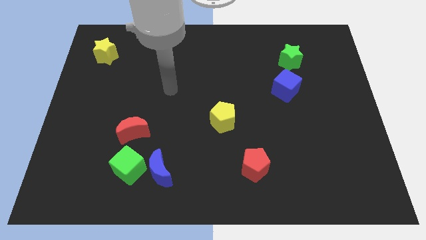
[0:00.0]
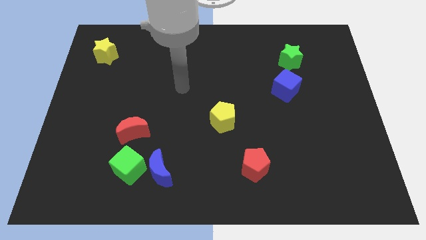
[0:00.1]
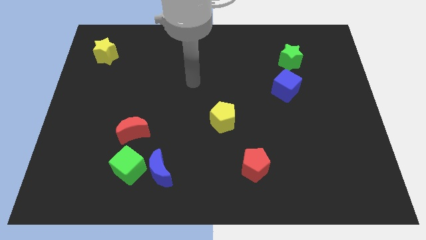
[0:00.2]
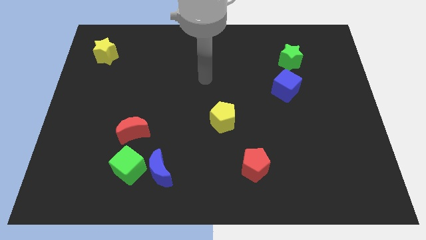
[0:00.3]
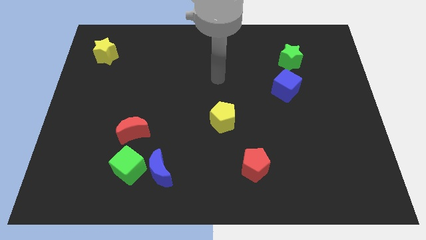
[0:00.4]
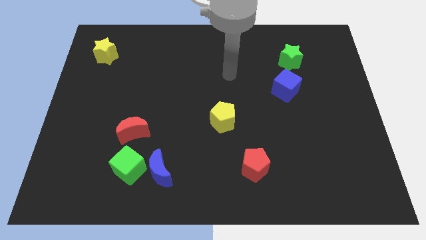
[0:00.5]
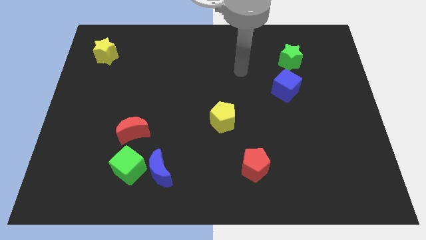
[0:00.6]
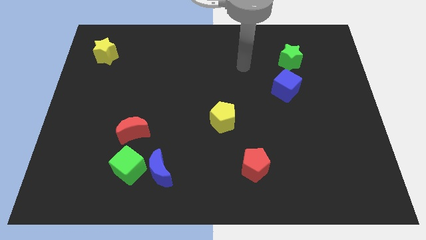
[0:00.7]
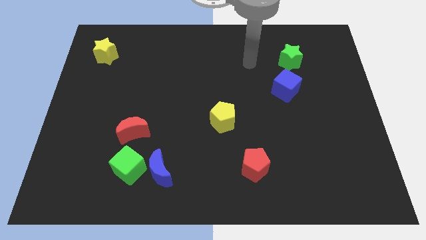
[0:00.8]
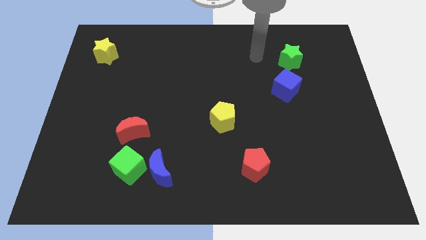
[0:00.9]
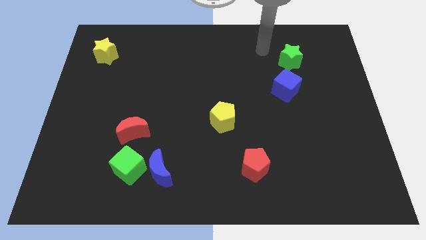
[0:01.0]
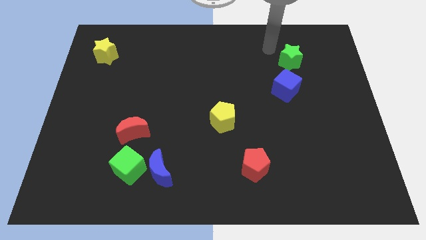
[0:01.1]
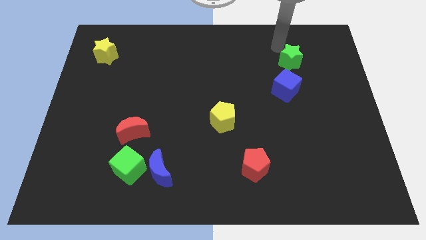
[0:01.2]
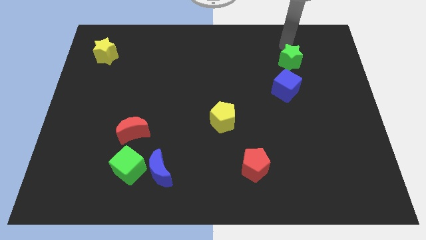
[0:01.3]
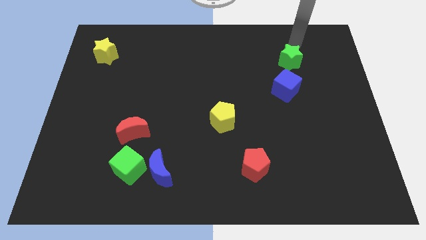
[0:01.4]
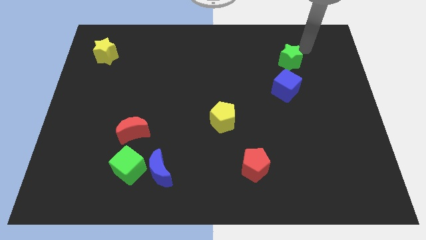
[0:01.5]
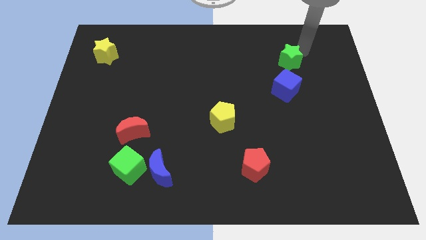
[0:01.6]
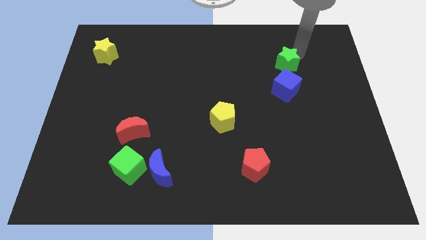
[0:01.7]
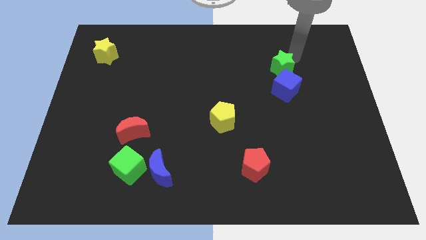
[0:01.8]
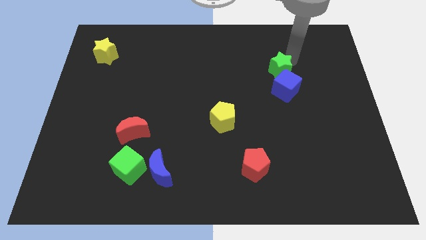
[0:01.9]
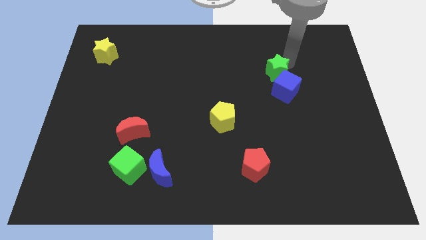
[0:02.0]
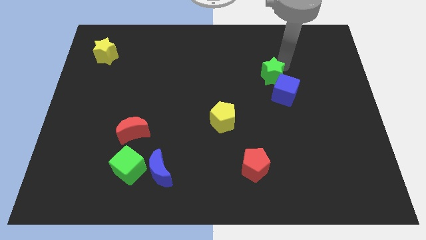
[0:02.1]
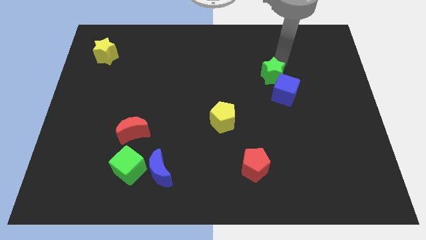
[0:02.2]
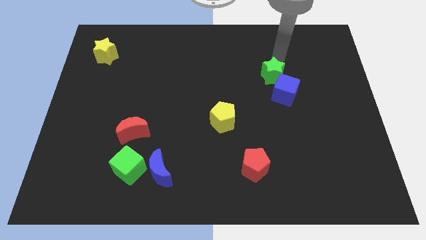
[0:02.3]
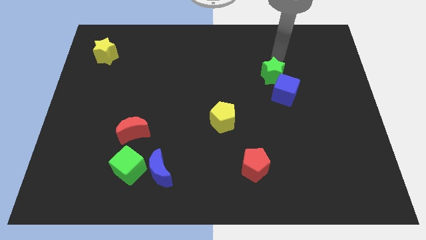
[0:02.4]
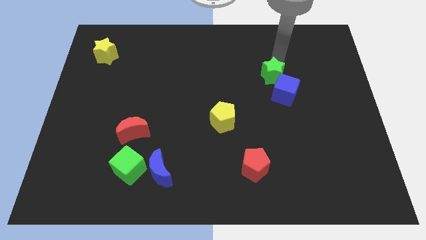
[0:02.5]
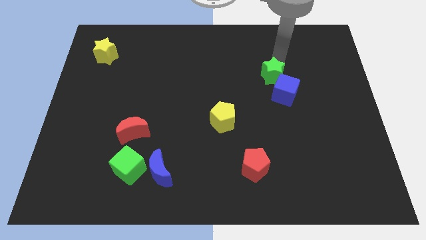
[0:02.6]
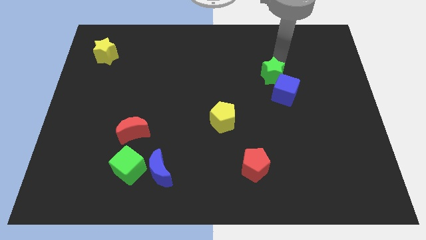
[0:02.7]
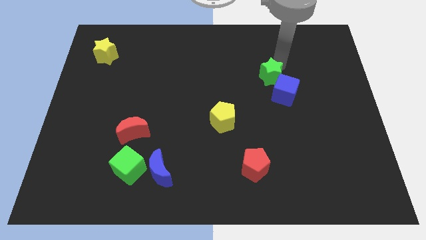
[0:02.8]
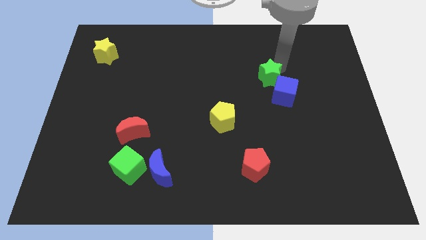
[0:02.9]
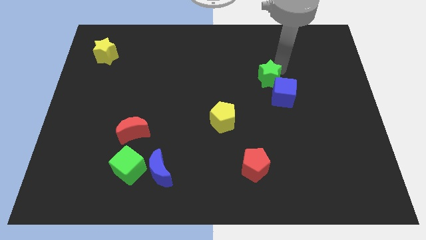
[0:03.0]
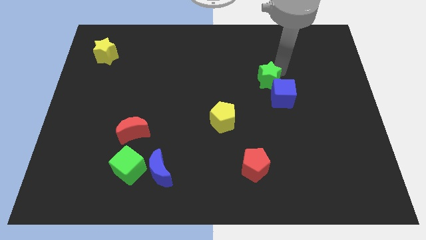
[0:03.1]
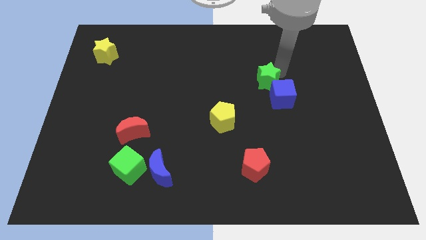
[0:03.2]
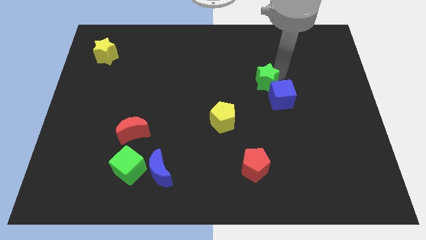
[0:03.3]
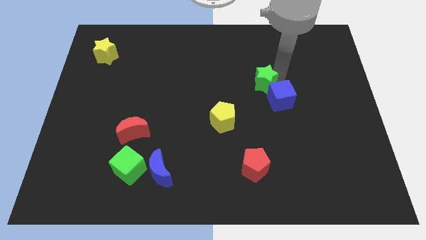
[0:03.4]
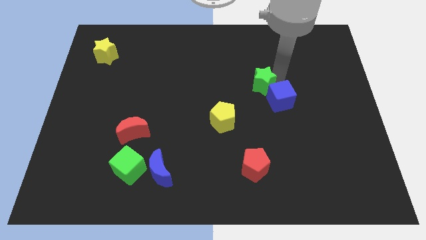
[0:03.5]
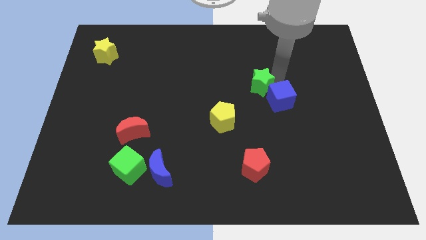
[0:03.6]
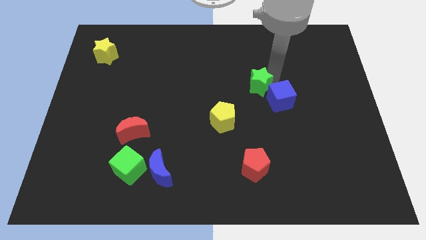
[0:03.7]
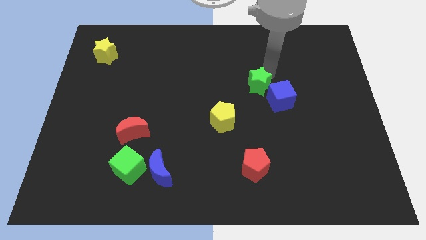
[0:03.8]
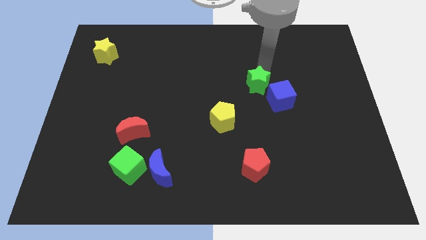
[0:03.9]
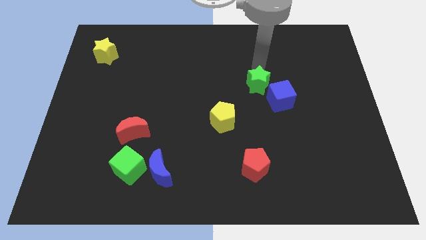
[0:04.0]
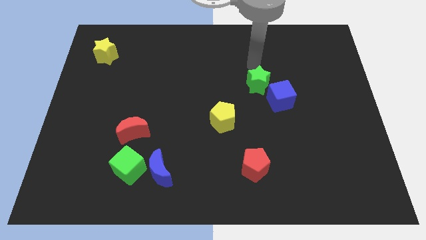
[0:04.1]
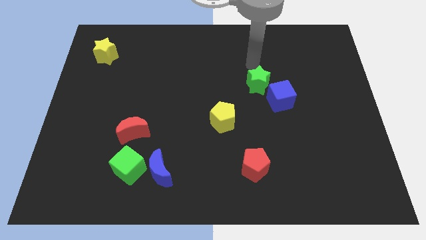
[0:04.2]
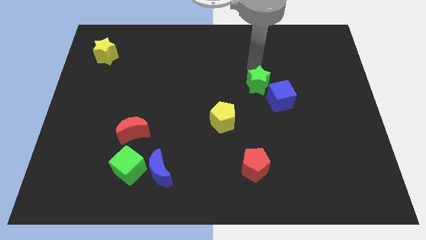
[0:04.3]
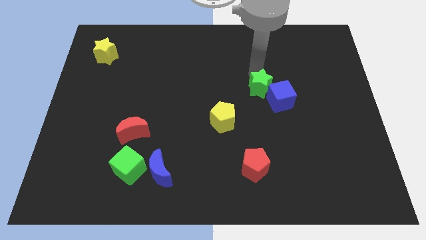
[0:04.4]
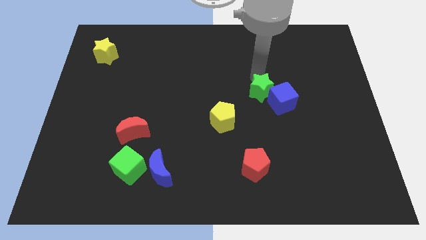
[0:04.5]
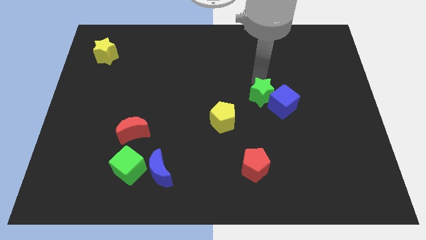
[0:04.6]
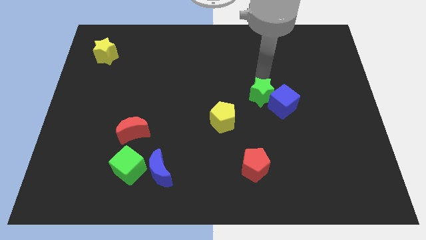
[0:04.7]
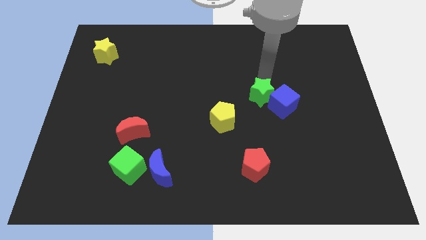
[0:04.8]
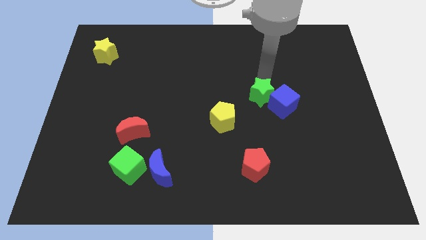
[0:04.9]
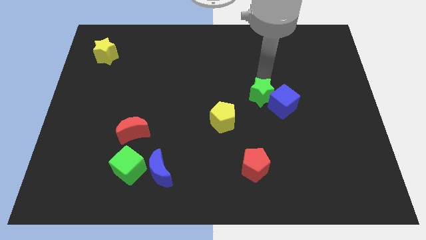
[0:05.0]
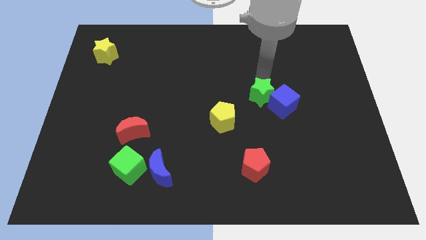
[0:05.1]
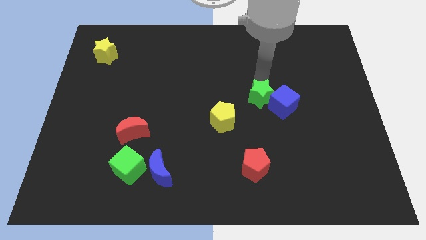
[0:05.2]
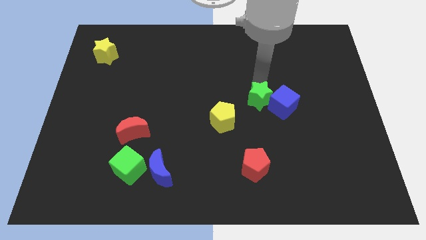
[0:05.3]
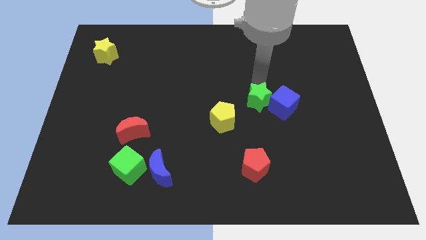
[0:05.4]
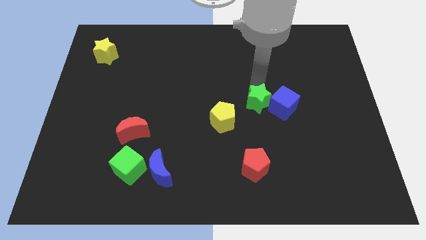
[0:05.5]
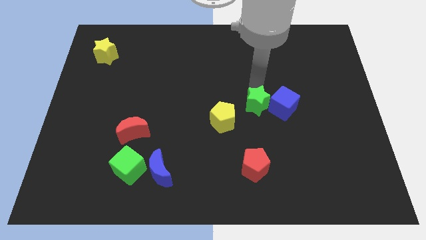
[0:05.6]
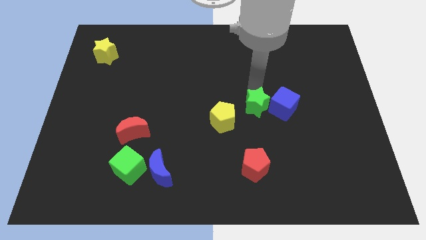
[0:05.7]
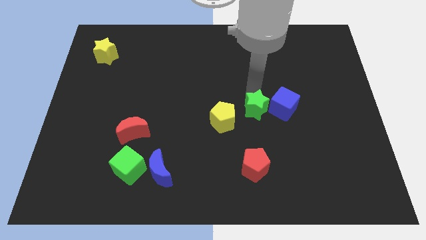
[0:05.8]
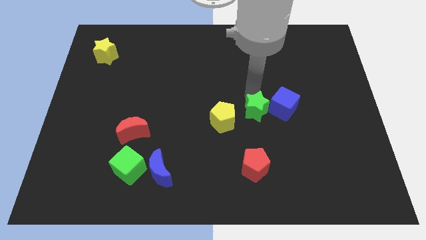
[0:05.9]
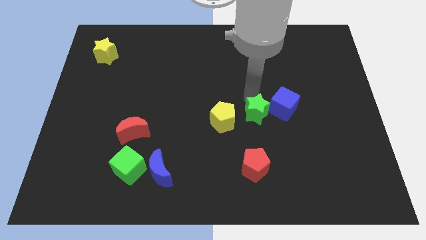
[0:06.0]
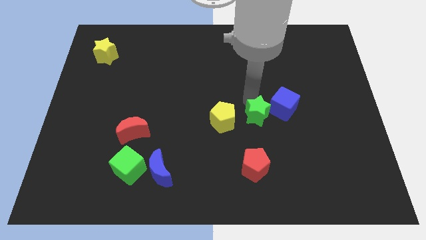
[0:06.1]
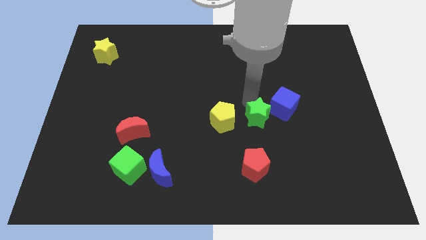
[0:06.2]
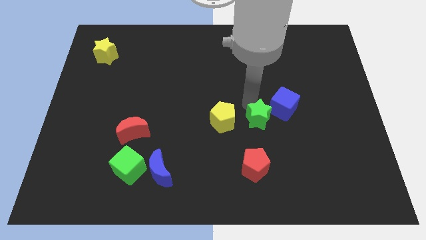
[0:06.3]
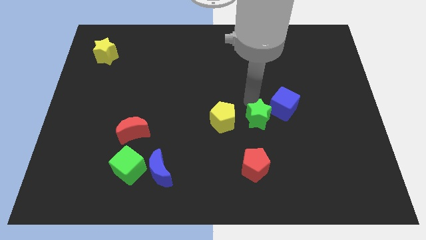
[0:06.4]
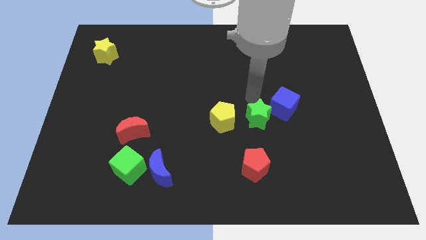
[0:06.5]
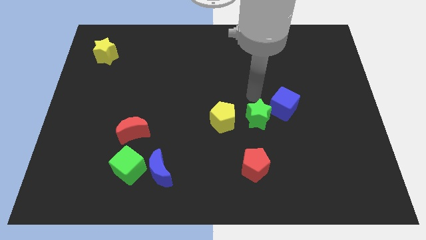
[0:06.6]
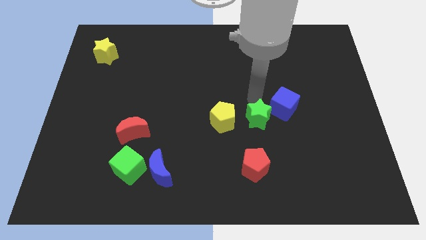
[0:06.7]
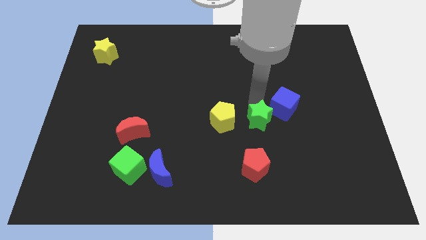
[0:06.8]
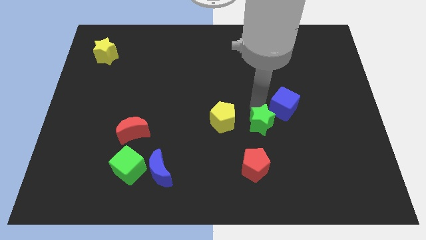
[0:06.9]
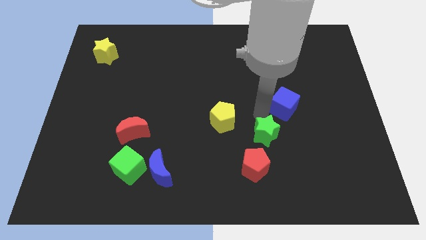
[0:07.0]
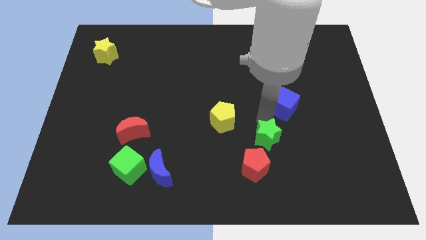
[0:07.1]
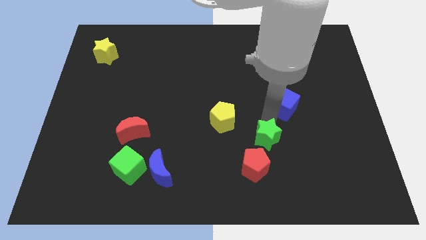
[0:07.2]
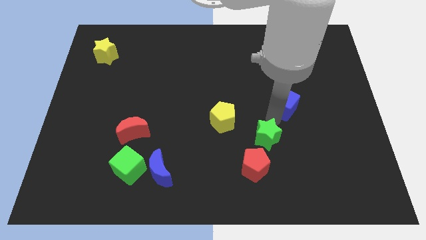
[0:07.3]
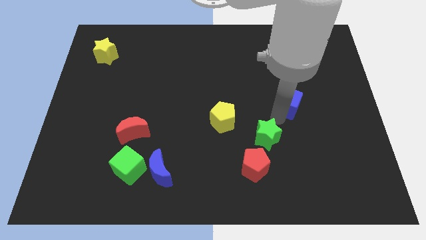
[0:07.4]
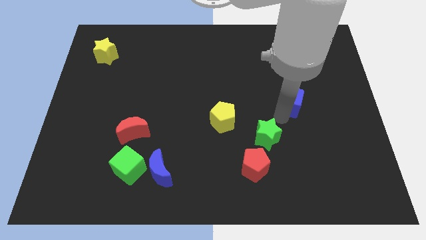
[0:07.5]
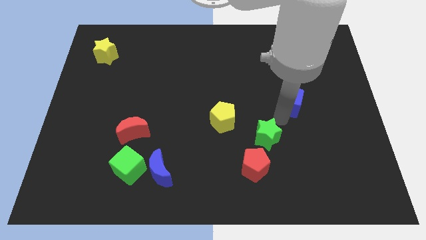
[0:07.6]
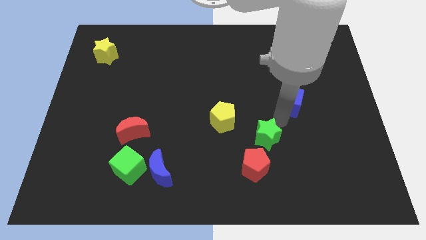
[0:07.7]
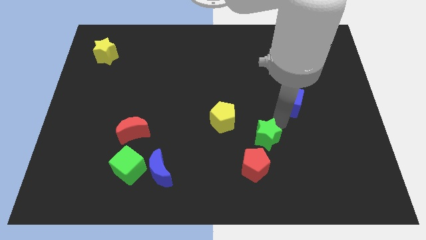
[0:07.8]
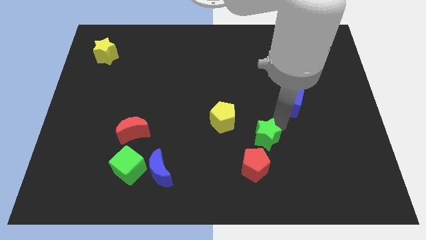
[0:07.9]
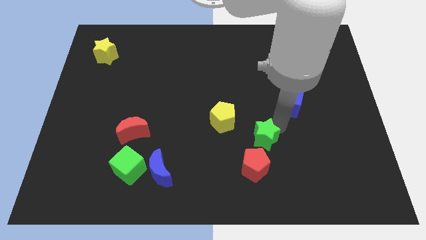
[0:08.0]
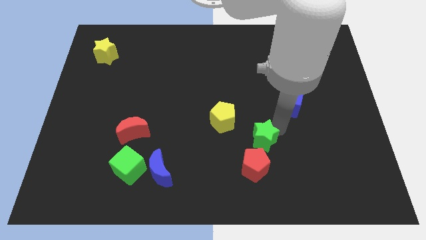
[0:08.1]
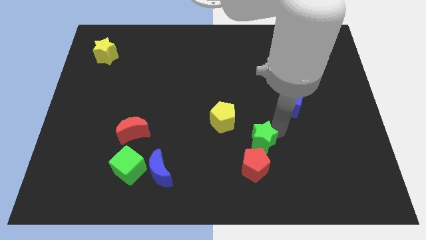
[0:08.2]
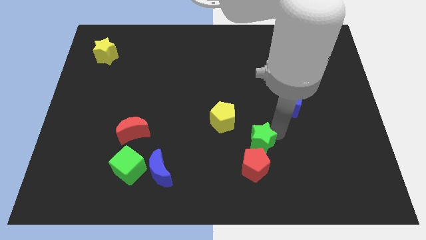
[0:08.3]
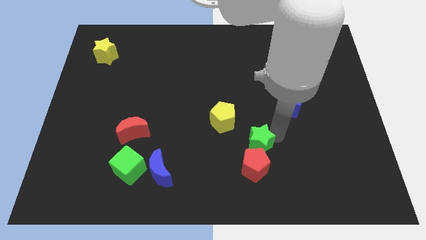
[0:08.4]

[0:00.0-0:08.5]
push the green star close to the red pentagon
